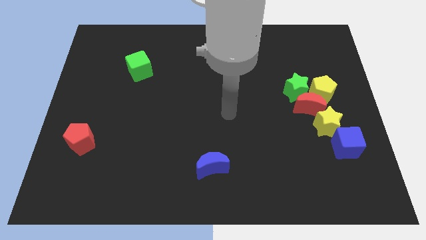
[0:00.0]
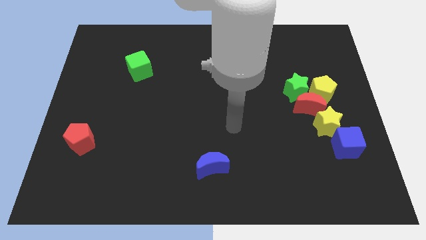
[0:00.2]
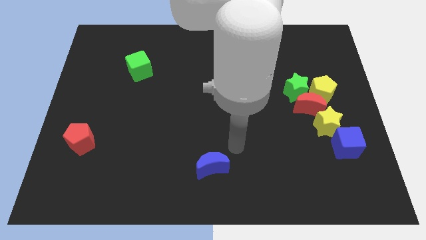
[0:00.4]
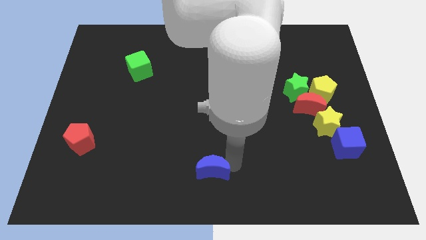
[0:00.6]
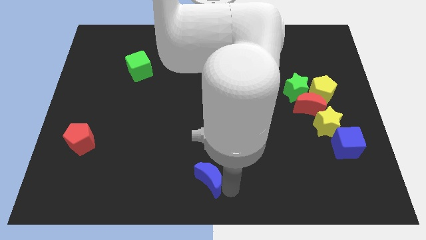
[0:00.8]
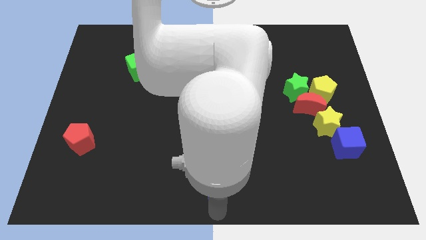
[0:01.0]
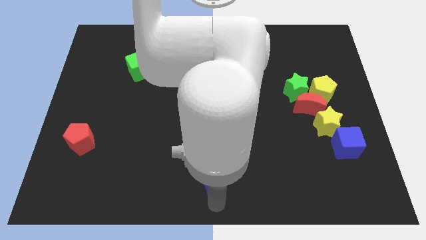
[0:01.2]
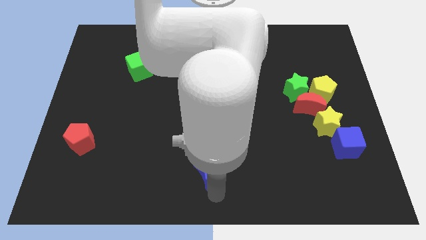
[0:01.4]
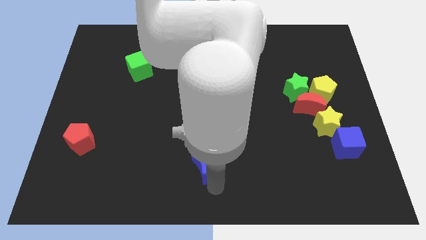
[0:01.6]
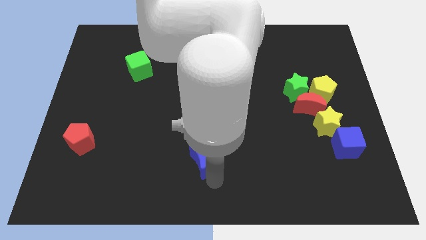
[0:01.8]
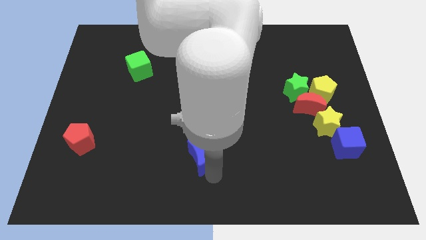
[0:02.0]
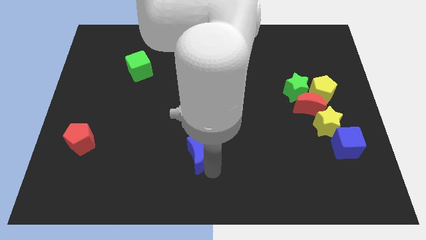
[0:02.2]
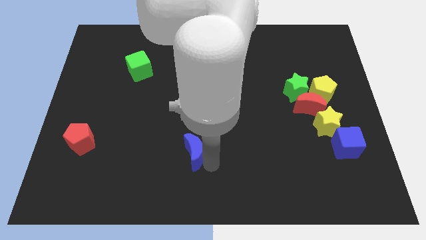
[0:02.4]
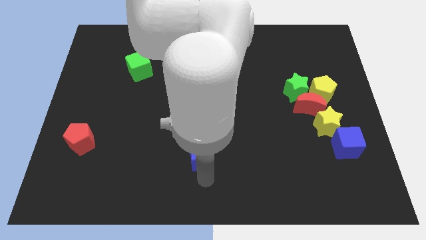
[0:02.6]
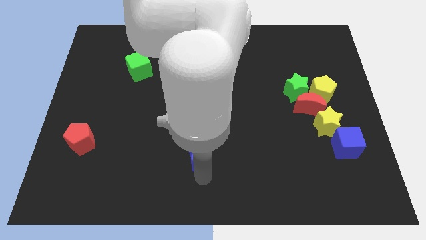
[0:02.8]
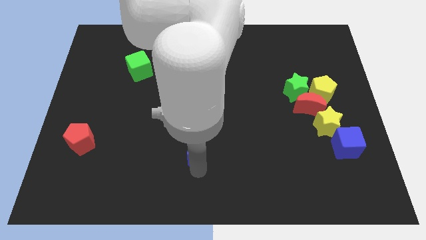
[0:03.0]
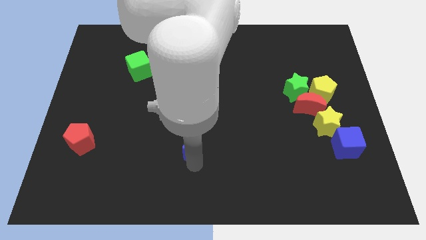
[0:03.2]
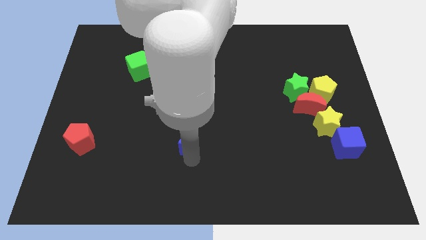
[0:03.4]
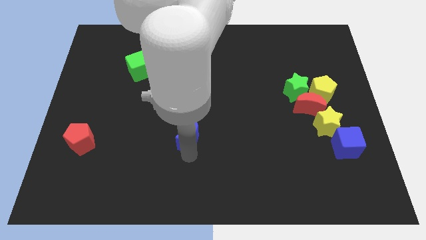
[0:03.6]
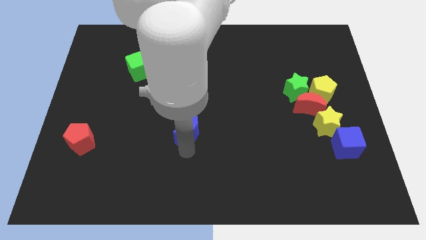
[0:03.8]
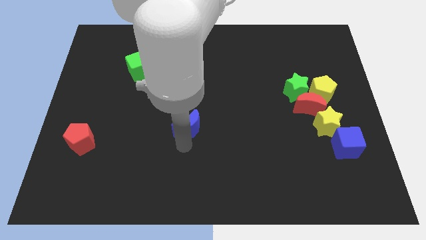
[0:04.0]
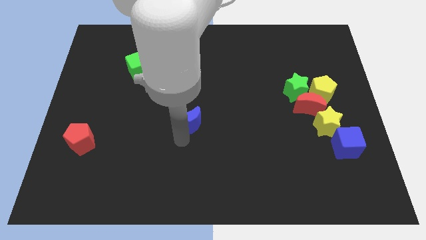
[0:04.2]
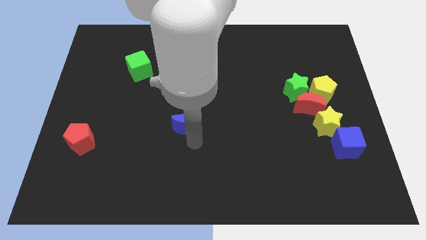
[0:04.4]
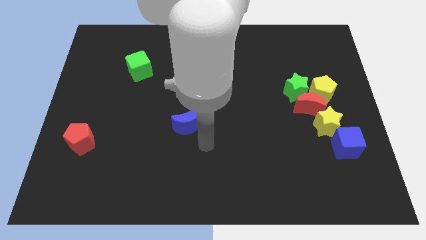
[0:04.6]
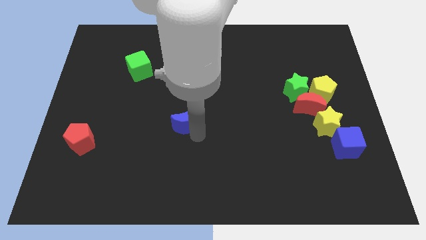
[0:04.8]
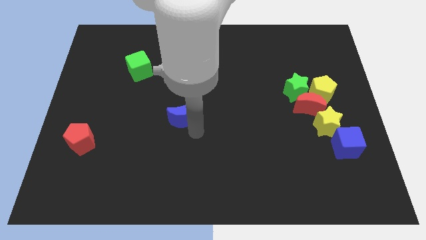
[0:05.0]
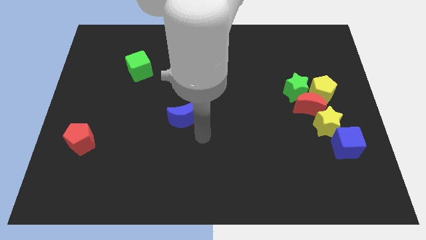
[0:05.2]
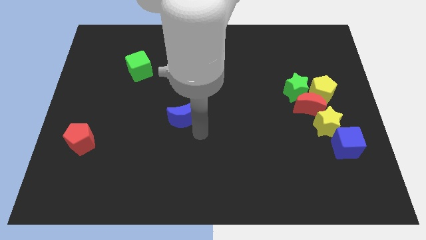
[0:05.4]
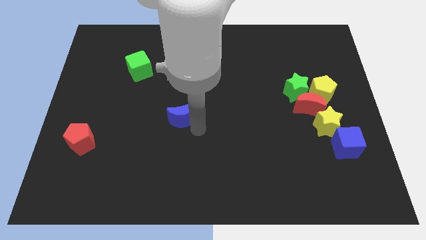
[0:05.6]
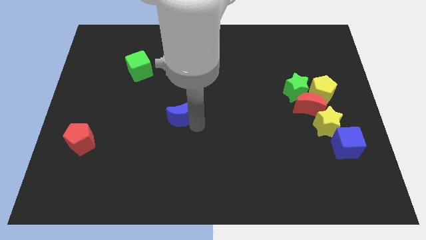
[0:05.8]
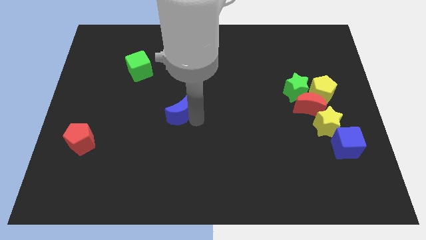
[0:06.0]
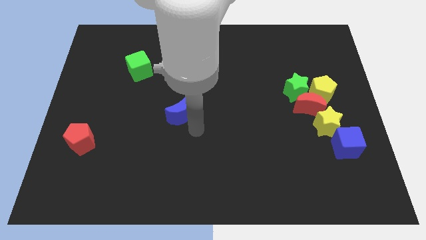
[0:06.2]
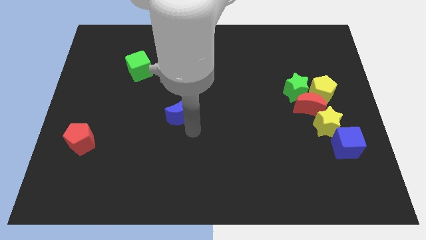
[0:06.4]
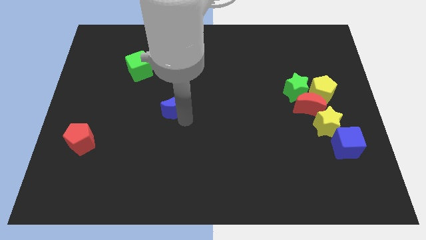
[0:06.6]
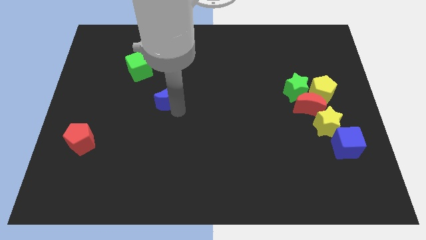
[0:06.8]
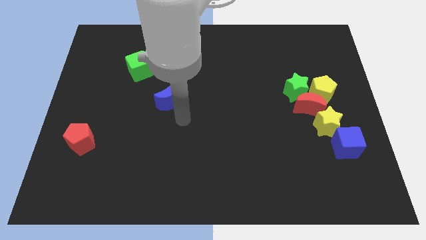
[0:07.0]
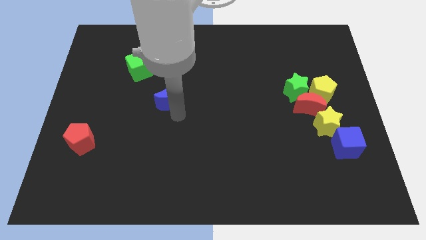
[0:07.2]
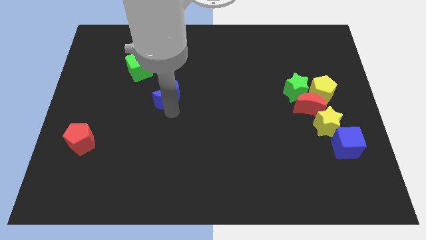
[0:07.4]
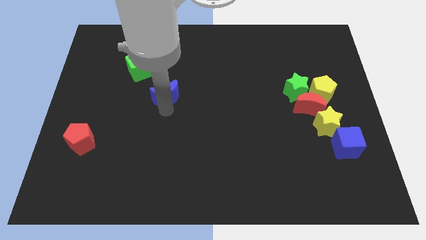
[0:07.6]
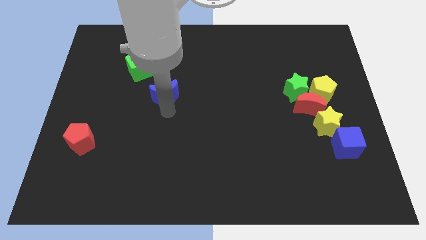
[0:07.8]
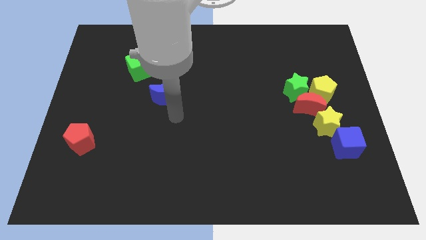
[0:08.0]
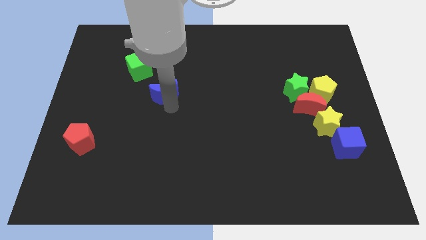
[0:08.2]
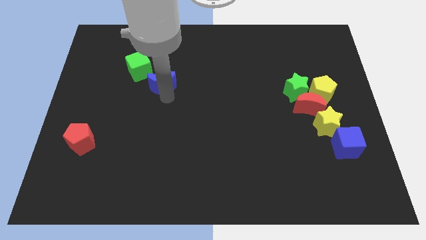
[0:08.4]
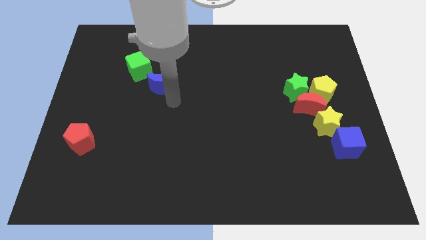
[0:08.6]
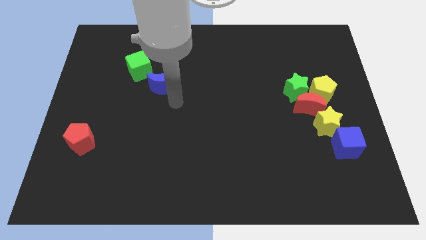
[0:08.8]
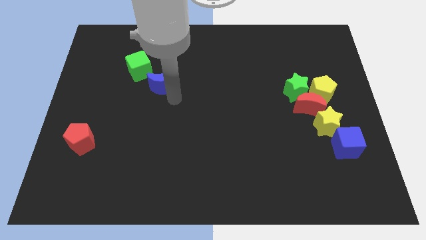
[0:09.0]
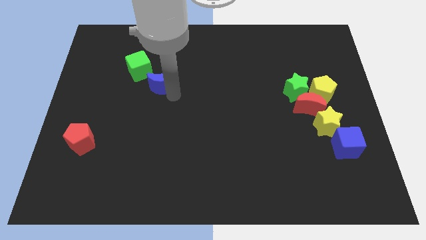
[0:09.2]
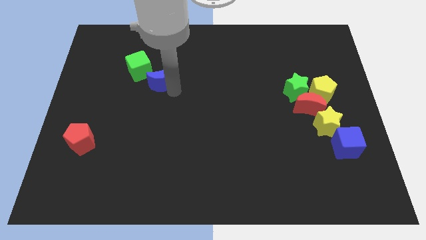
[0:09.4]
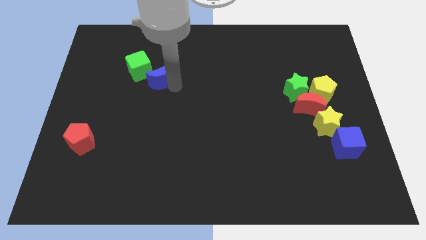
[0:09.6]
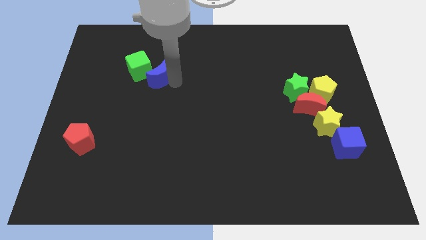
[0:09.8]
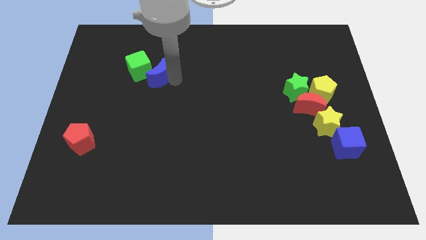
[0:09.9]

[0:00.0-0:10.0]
move the blue moon to the green cube

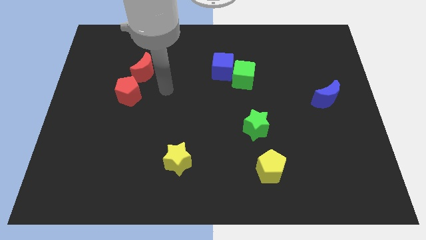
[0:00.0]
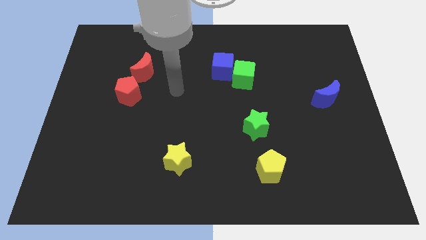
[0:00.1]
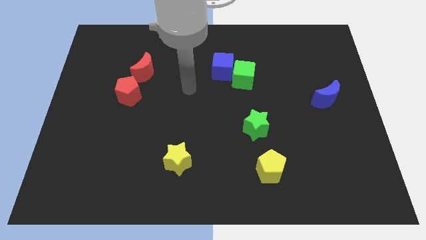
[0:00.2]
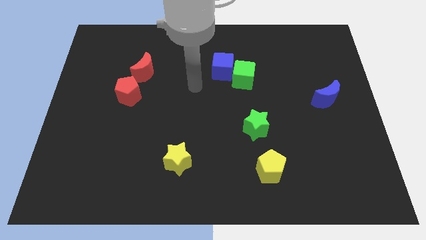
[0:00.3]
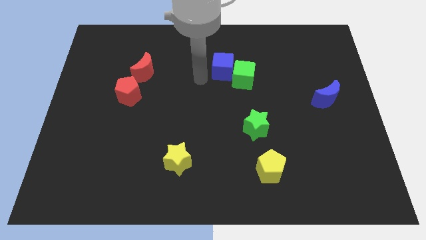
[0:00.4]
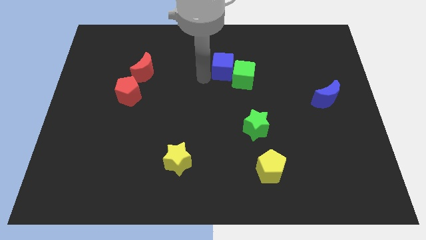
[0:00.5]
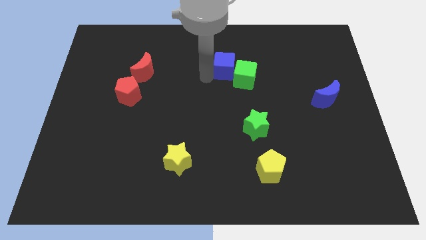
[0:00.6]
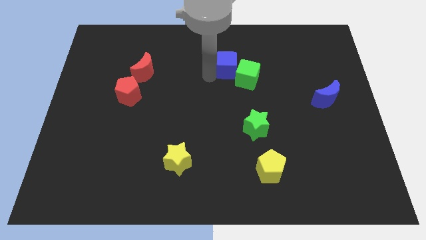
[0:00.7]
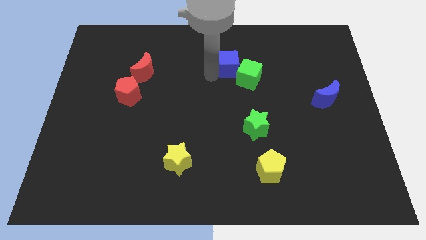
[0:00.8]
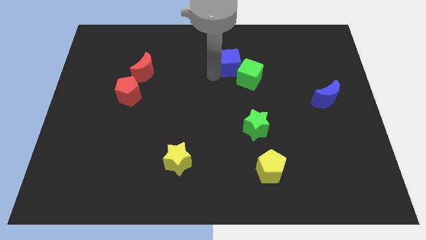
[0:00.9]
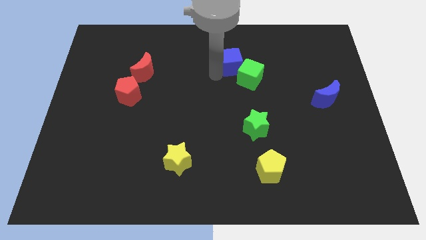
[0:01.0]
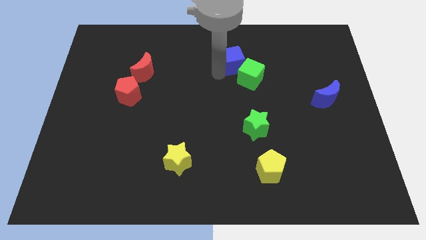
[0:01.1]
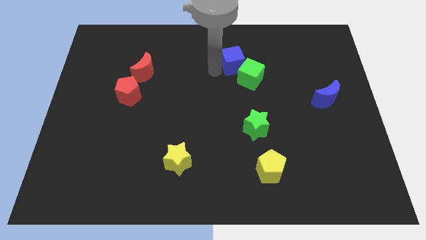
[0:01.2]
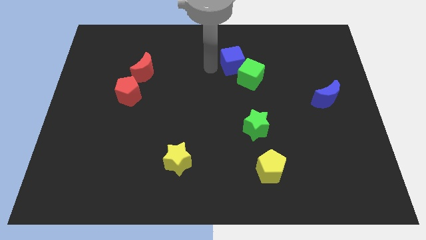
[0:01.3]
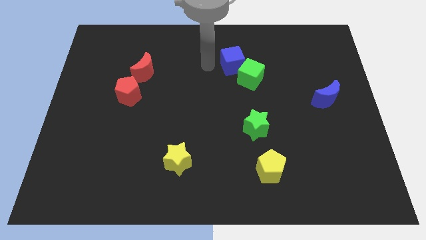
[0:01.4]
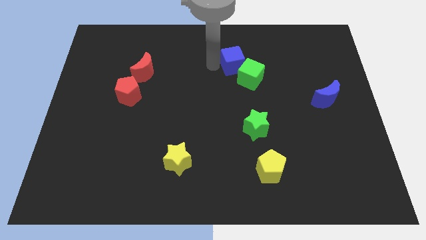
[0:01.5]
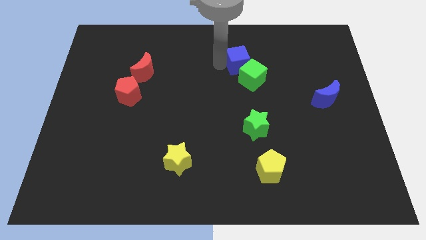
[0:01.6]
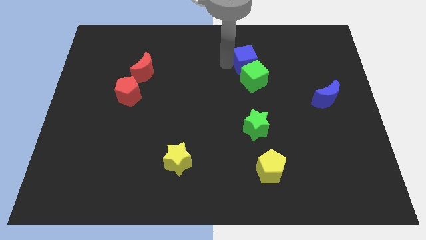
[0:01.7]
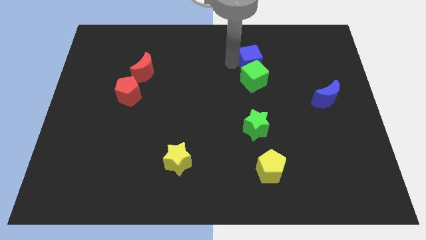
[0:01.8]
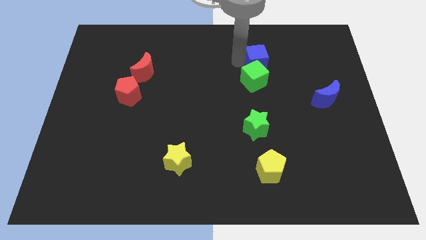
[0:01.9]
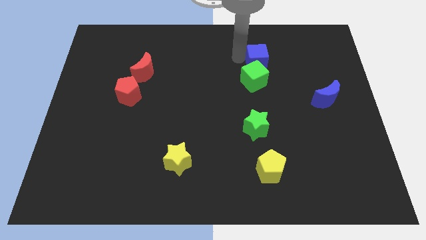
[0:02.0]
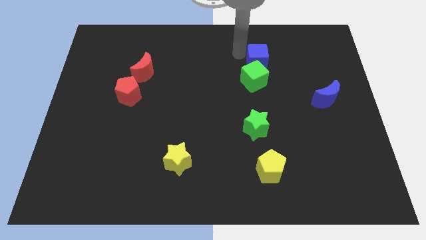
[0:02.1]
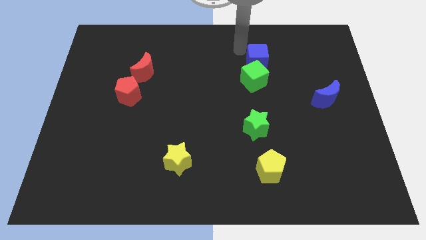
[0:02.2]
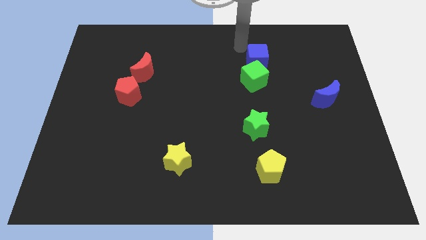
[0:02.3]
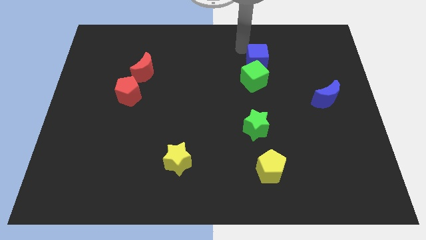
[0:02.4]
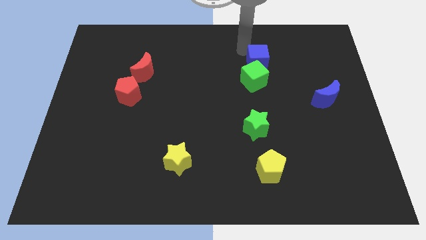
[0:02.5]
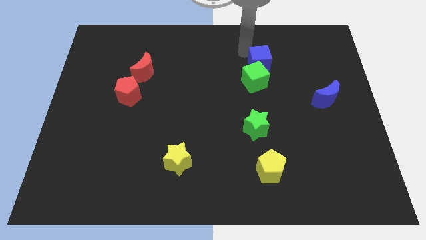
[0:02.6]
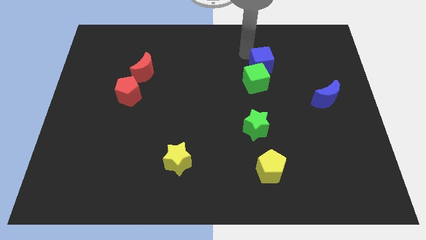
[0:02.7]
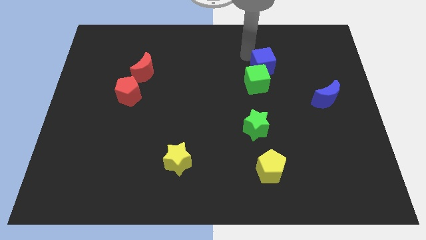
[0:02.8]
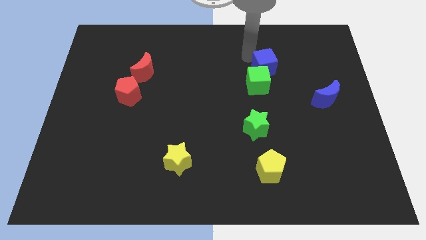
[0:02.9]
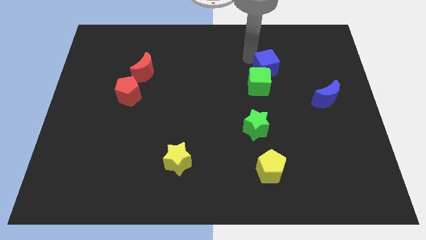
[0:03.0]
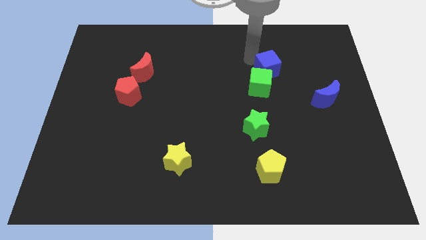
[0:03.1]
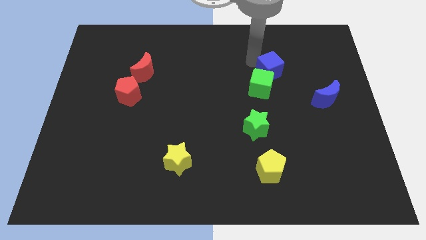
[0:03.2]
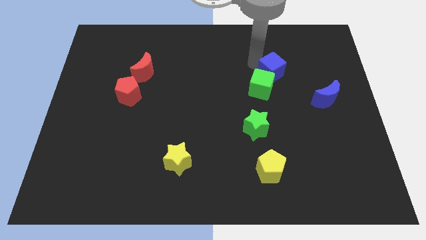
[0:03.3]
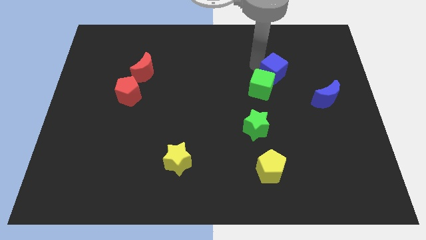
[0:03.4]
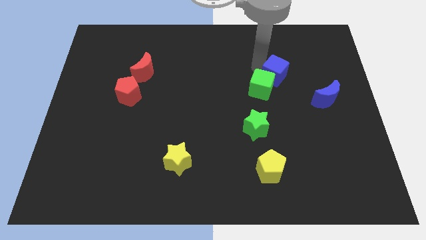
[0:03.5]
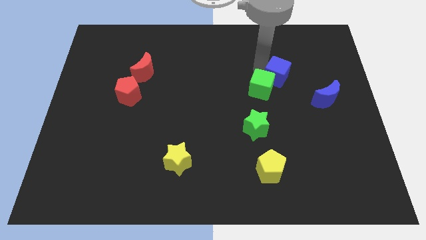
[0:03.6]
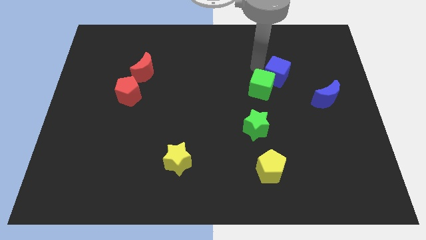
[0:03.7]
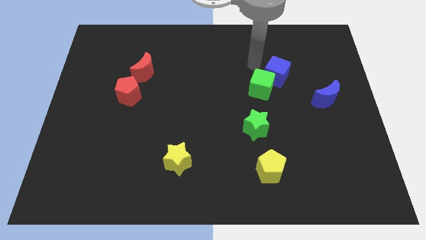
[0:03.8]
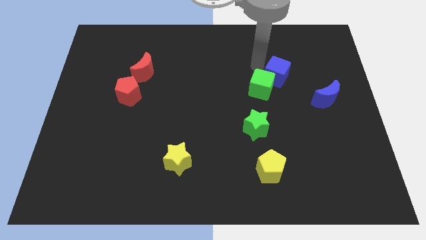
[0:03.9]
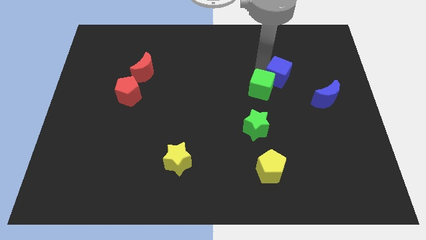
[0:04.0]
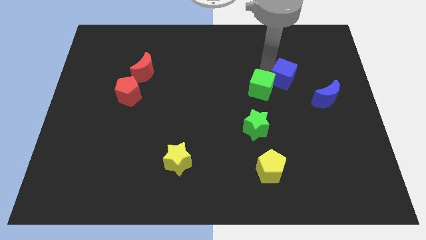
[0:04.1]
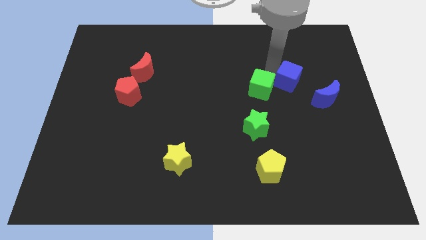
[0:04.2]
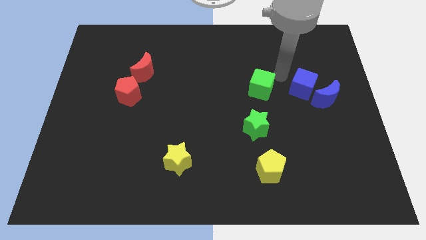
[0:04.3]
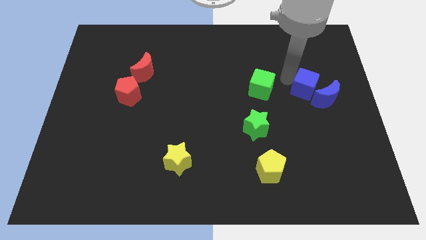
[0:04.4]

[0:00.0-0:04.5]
slide the blue cube towards the blue moon
